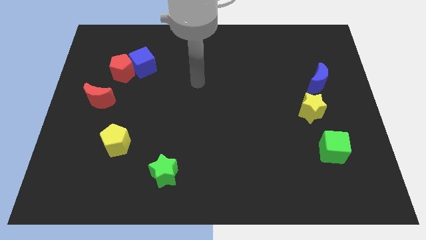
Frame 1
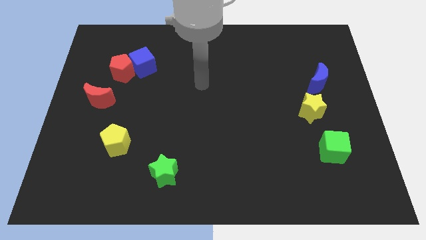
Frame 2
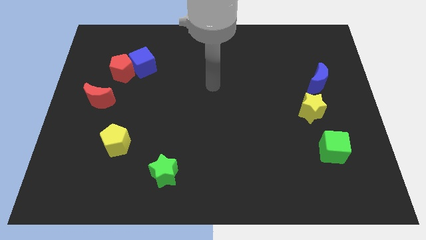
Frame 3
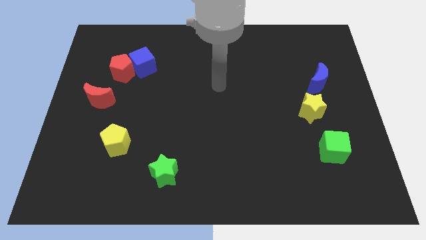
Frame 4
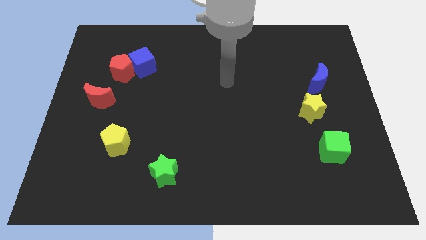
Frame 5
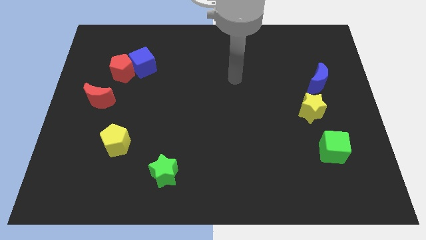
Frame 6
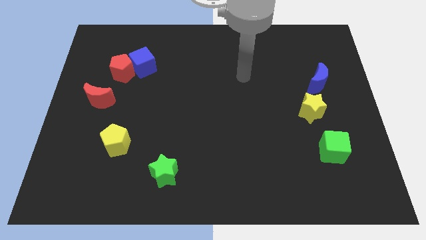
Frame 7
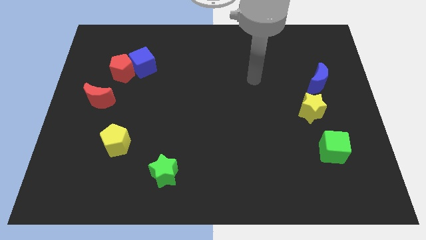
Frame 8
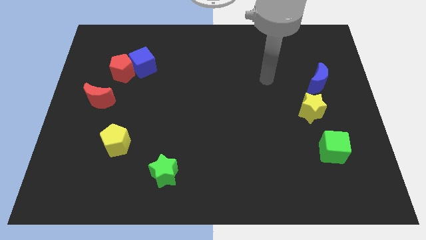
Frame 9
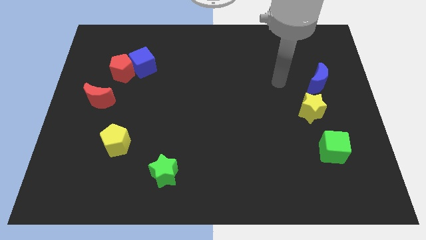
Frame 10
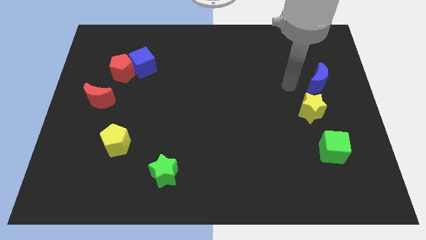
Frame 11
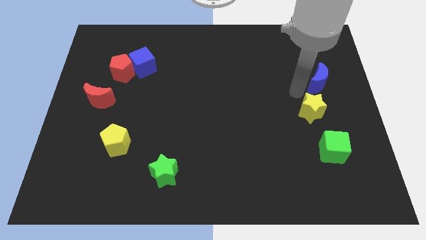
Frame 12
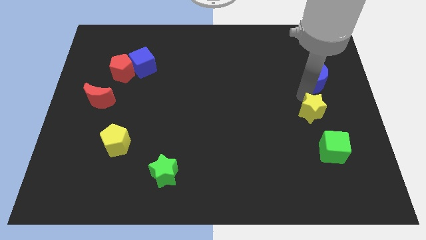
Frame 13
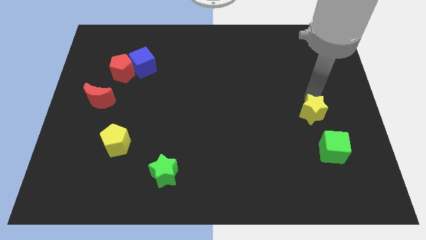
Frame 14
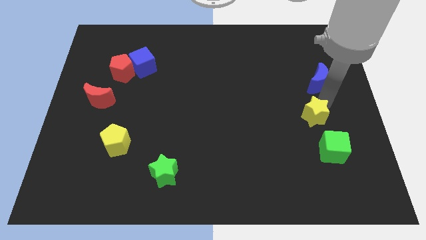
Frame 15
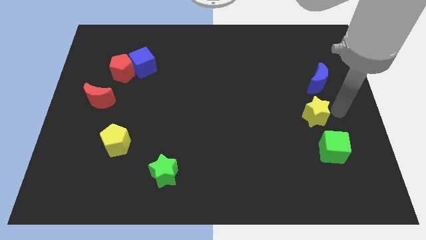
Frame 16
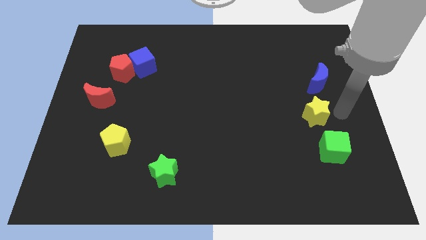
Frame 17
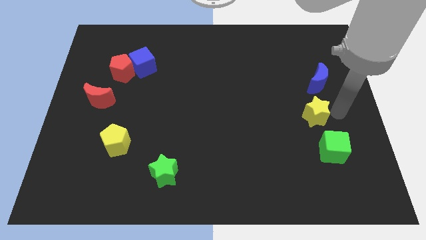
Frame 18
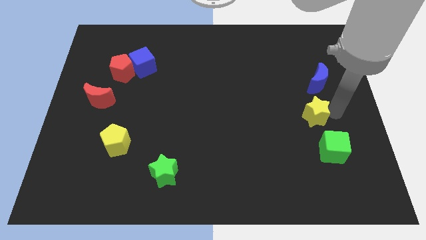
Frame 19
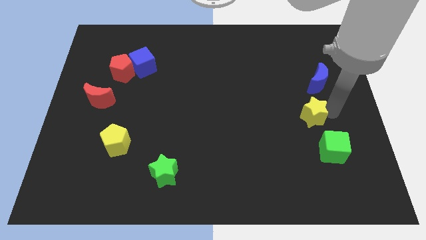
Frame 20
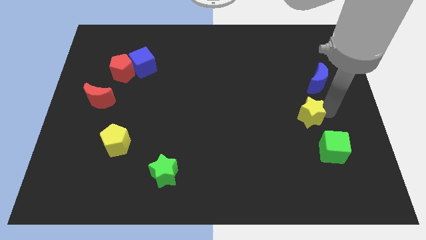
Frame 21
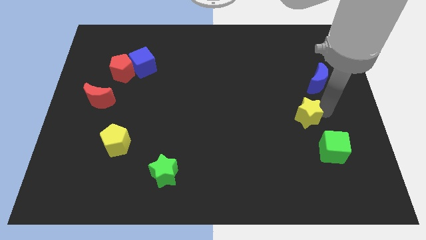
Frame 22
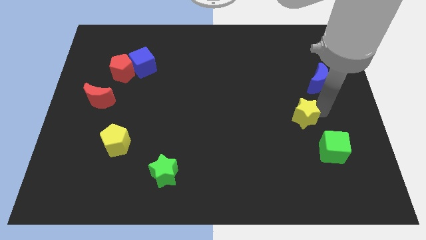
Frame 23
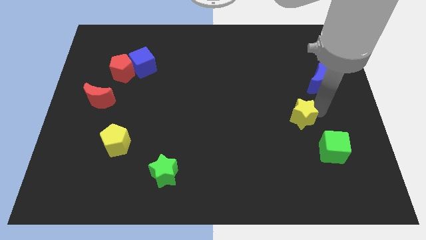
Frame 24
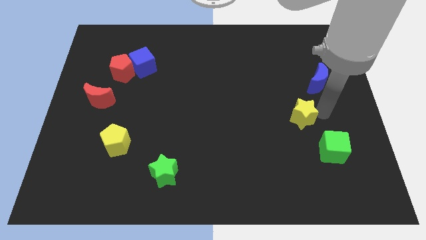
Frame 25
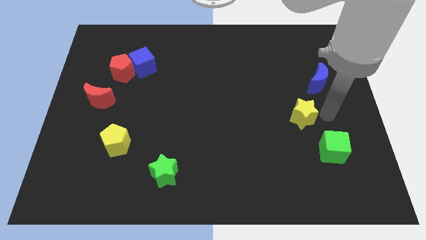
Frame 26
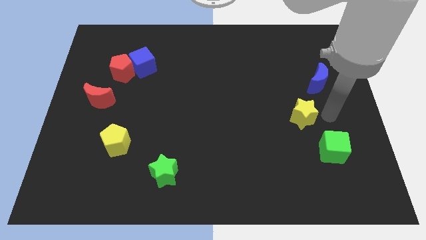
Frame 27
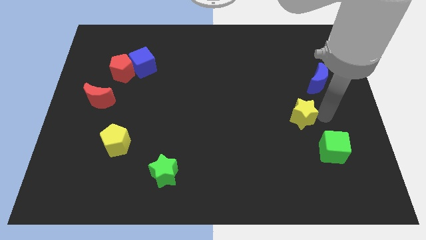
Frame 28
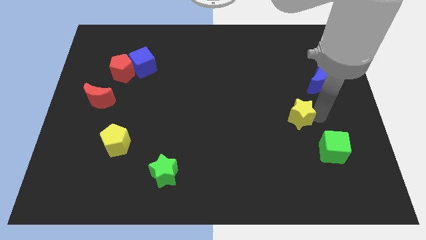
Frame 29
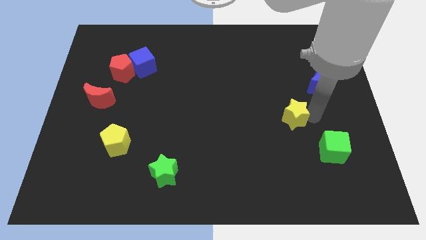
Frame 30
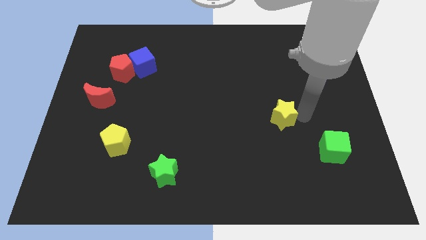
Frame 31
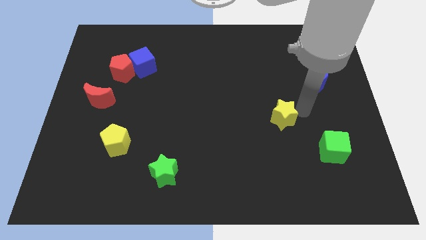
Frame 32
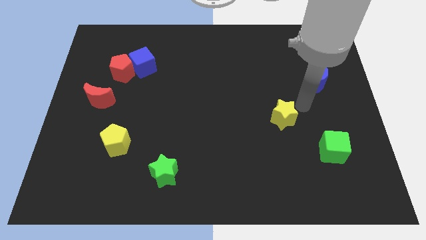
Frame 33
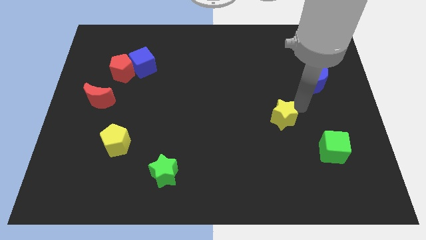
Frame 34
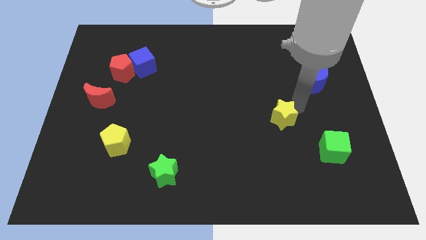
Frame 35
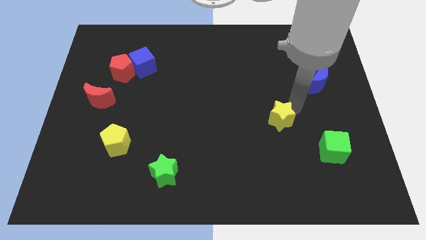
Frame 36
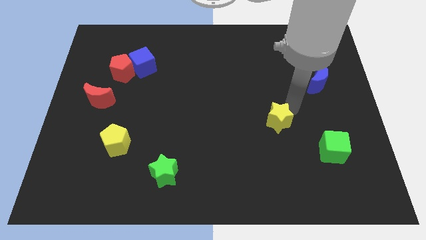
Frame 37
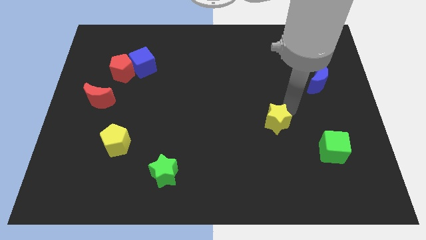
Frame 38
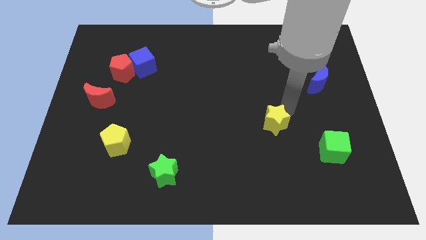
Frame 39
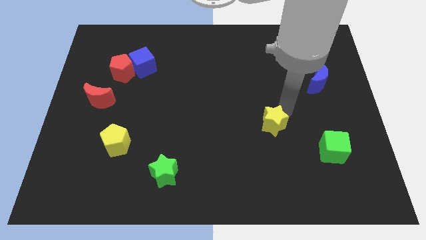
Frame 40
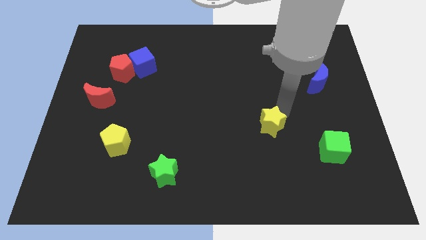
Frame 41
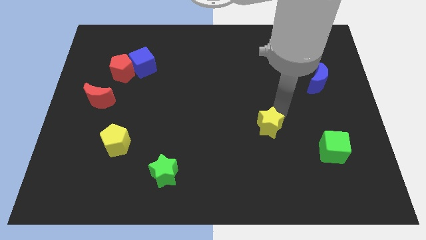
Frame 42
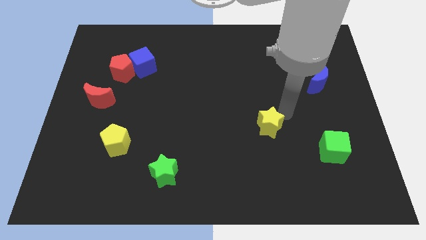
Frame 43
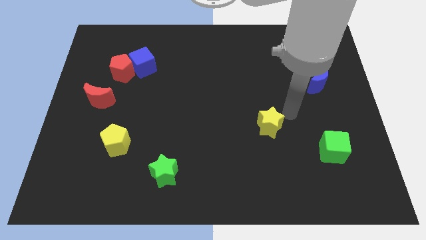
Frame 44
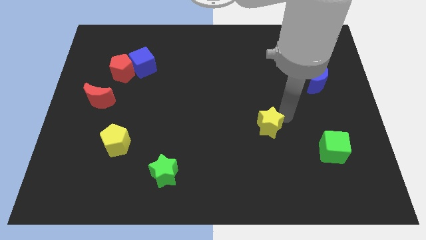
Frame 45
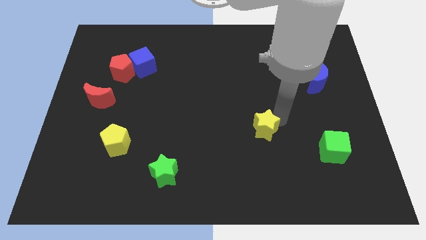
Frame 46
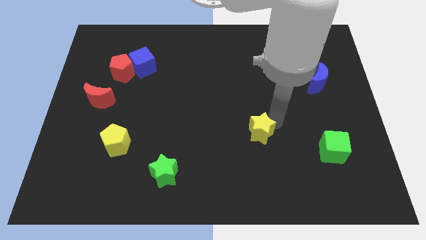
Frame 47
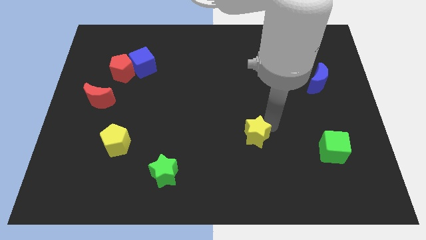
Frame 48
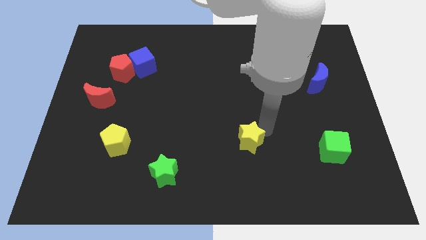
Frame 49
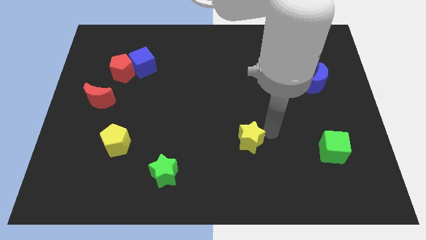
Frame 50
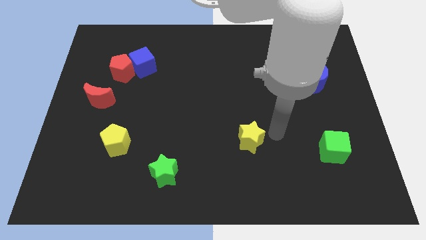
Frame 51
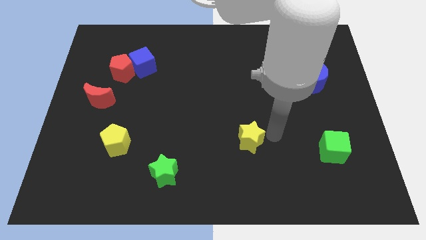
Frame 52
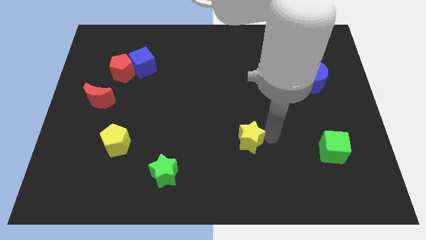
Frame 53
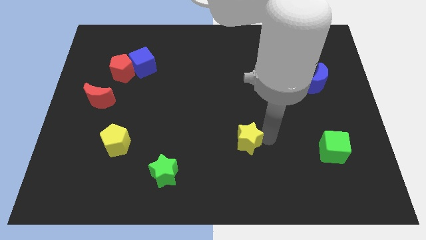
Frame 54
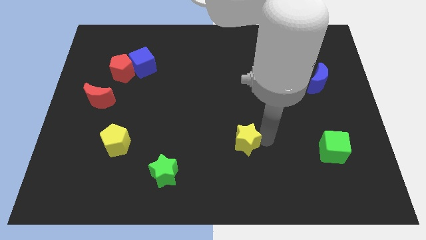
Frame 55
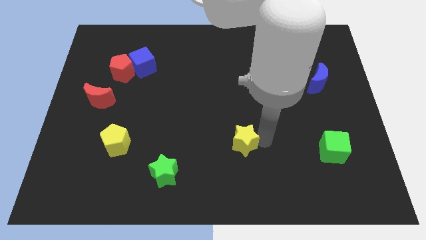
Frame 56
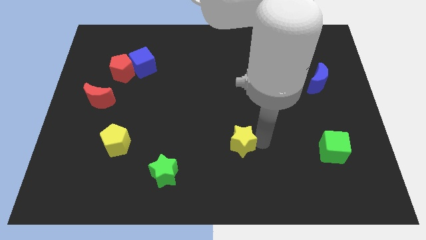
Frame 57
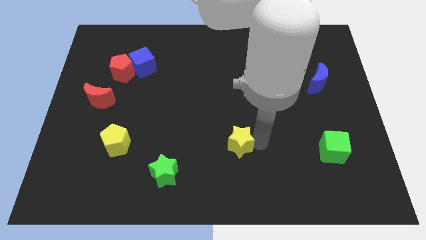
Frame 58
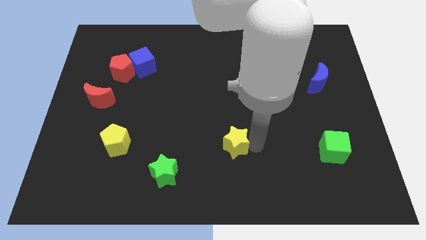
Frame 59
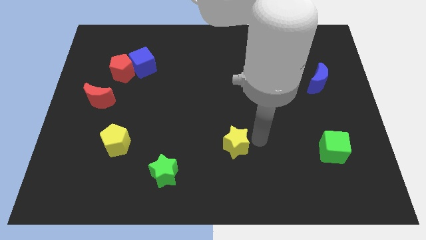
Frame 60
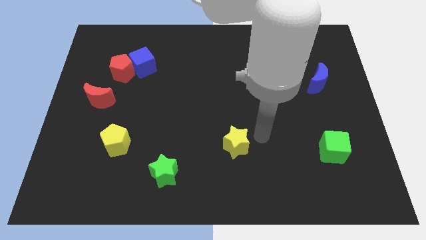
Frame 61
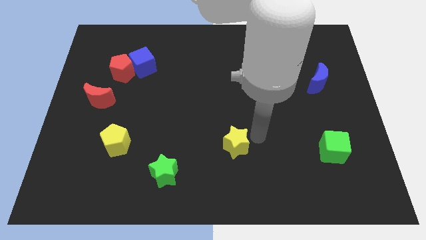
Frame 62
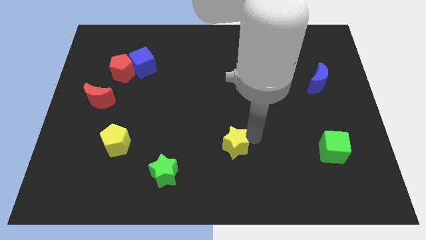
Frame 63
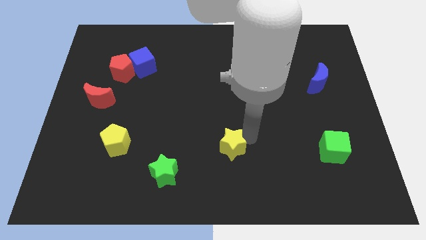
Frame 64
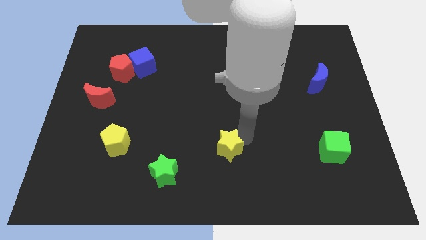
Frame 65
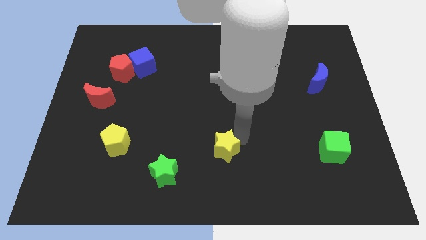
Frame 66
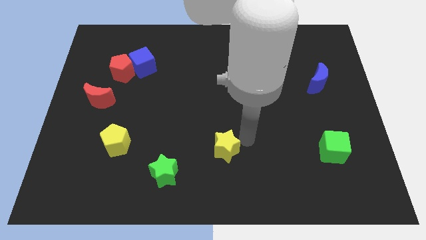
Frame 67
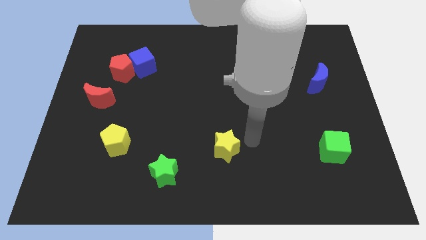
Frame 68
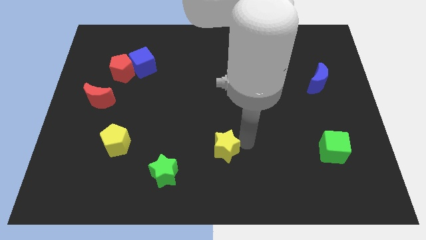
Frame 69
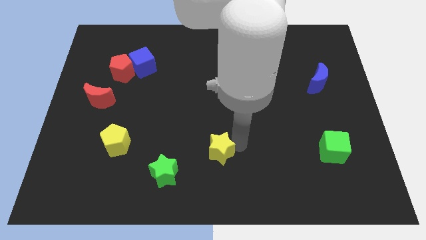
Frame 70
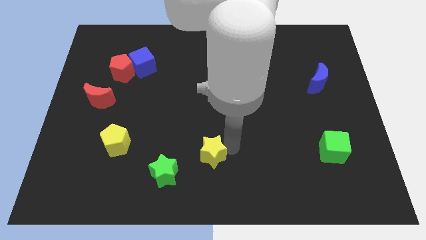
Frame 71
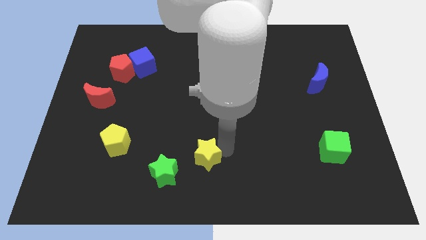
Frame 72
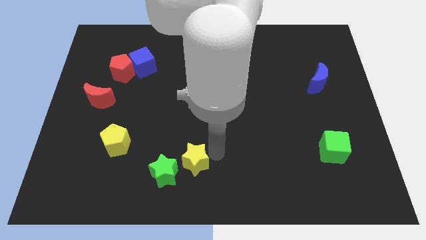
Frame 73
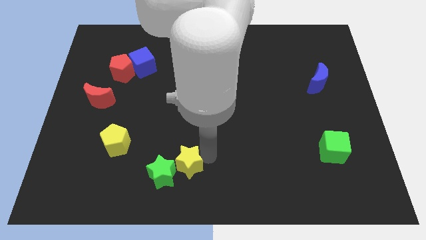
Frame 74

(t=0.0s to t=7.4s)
move the yellow star next to the green star

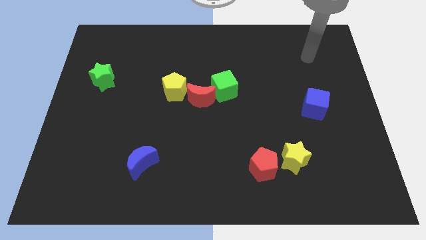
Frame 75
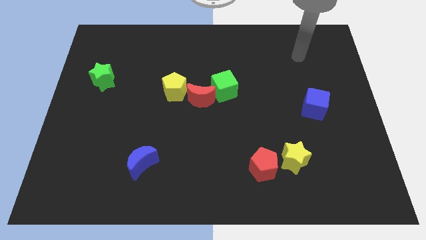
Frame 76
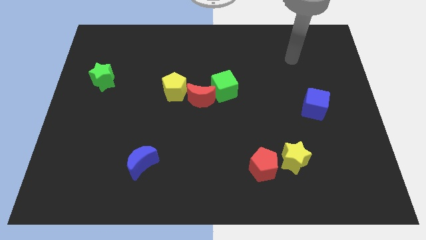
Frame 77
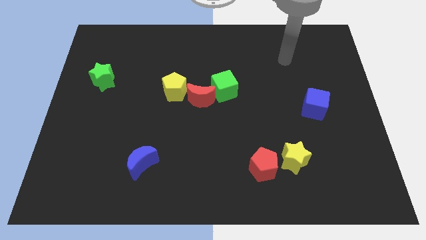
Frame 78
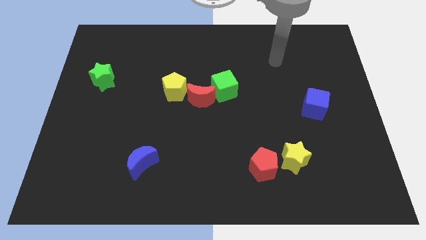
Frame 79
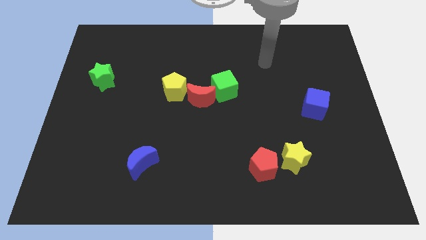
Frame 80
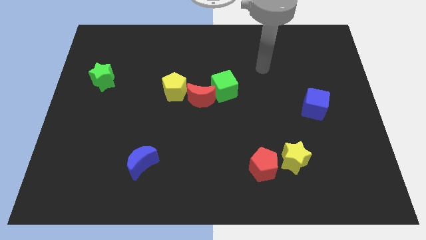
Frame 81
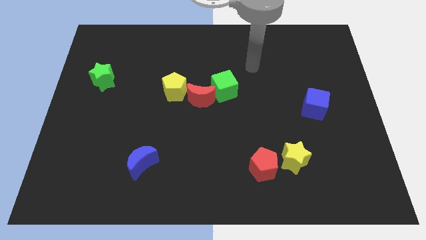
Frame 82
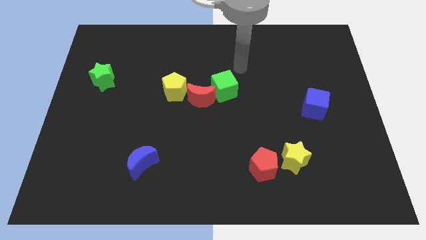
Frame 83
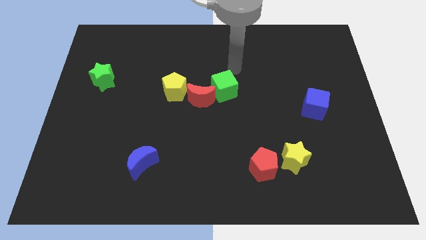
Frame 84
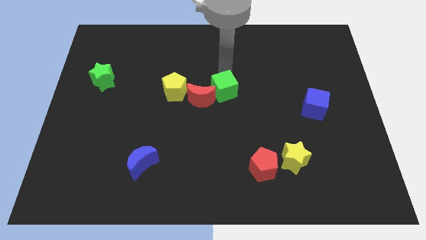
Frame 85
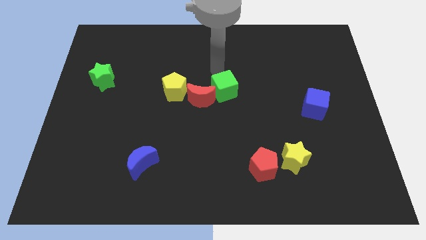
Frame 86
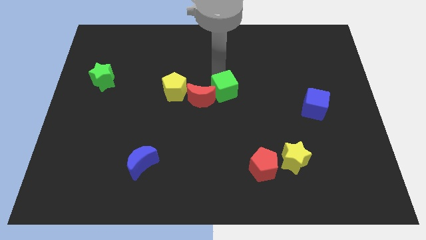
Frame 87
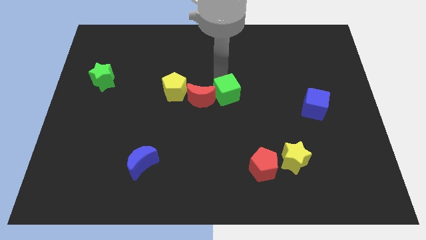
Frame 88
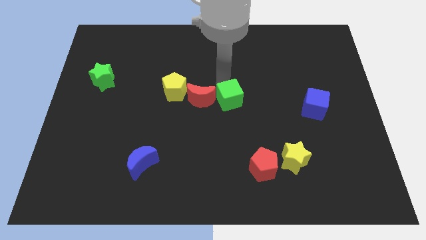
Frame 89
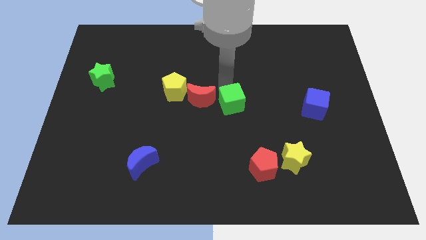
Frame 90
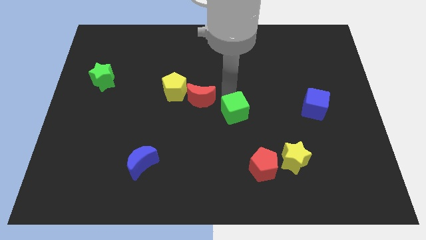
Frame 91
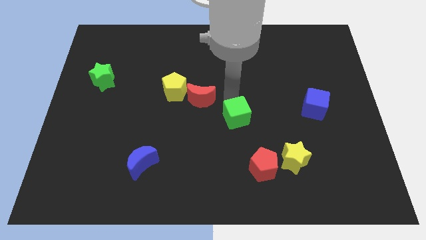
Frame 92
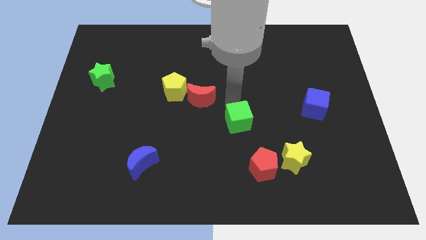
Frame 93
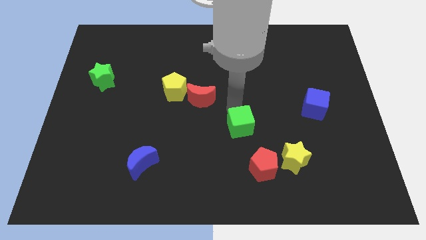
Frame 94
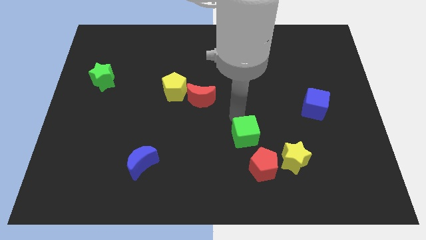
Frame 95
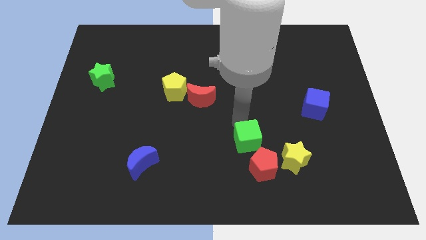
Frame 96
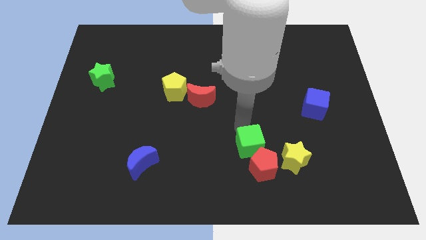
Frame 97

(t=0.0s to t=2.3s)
move the green cube close to the red pentagon
